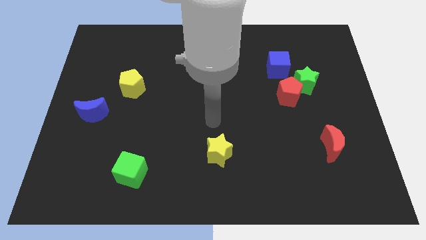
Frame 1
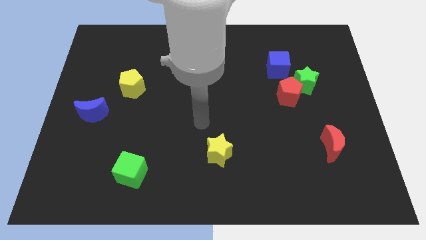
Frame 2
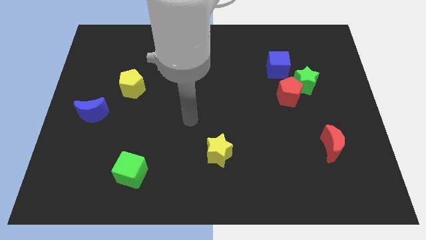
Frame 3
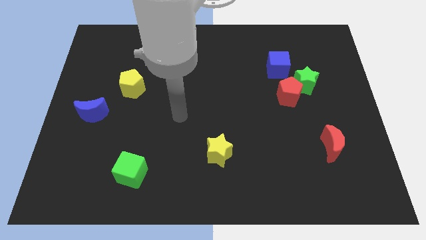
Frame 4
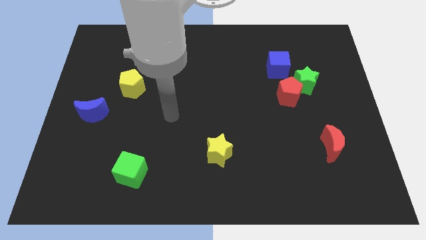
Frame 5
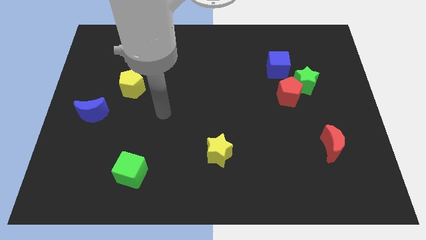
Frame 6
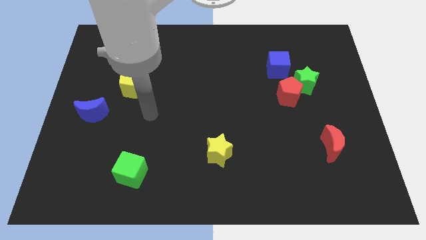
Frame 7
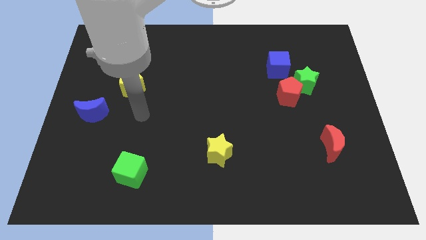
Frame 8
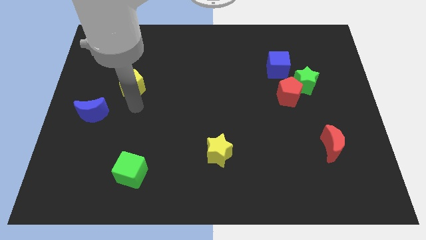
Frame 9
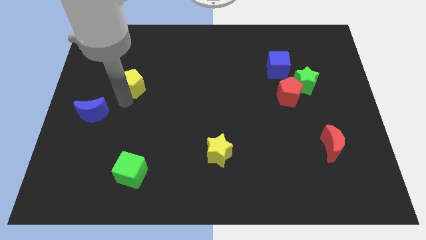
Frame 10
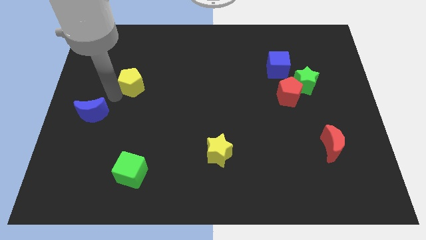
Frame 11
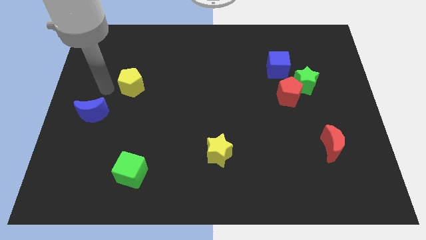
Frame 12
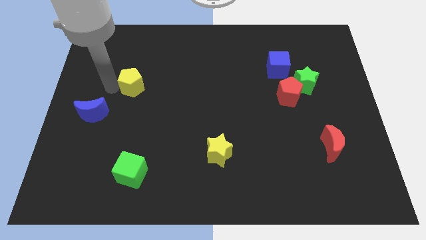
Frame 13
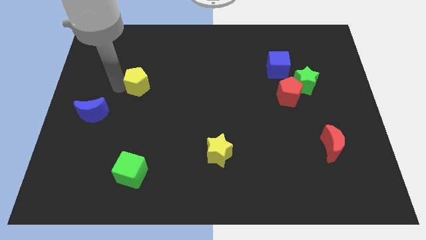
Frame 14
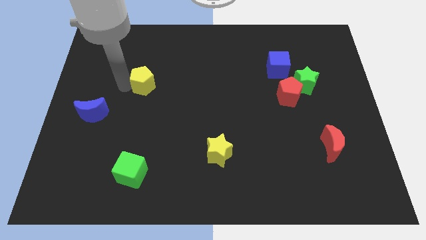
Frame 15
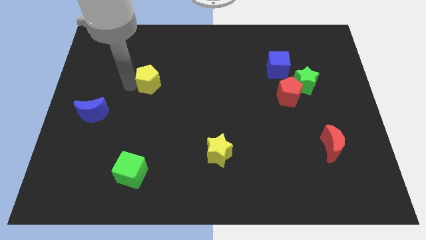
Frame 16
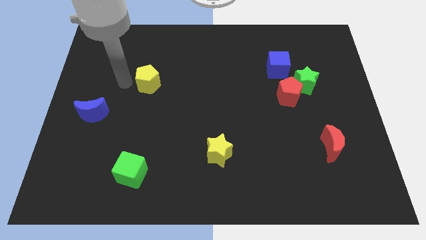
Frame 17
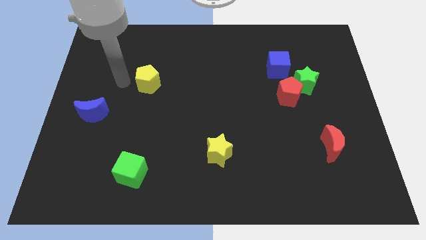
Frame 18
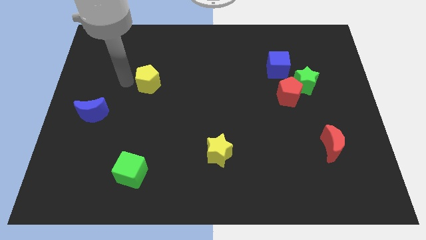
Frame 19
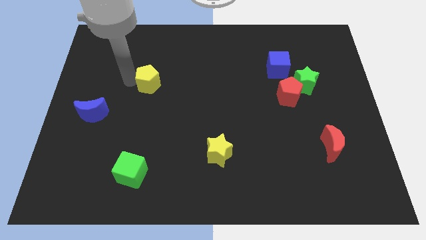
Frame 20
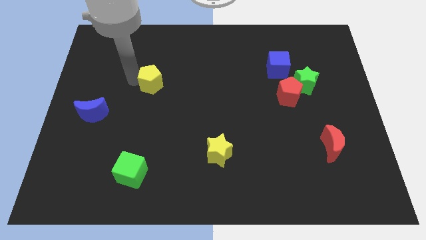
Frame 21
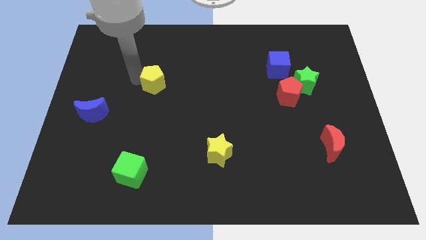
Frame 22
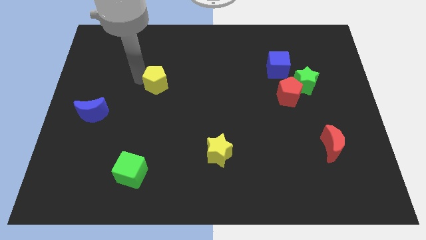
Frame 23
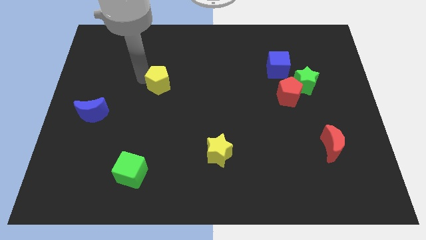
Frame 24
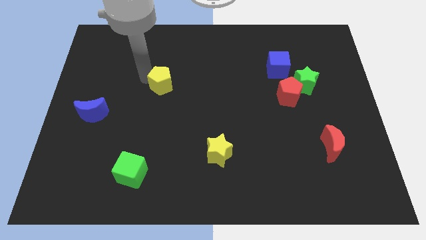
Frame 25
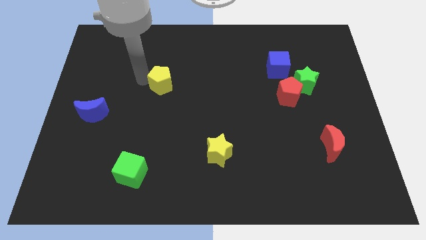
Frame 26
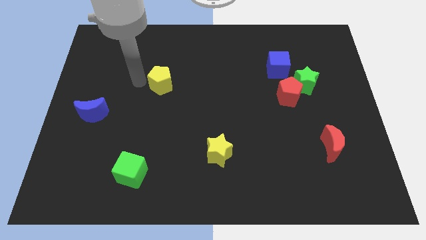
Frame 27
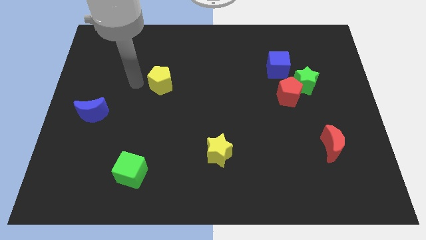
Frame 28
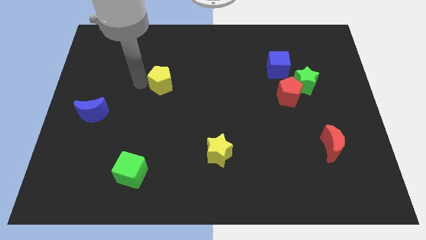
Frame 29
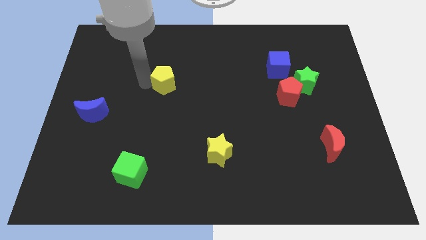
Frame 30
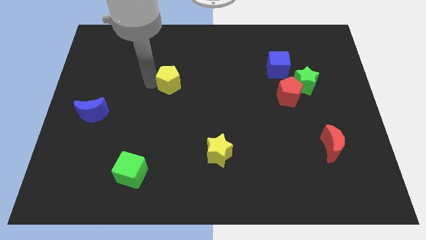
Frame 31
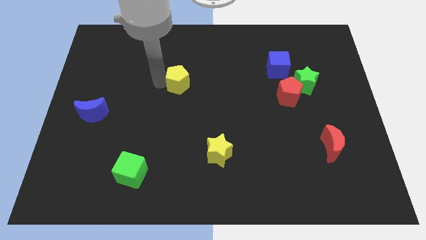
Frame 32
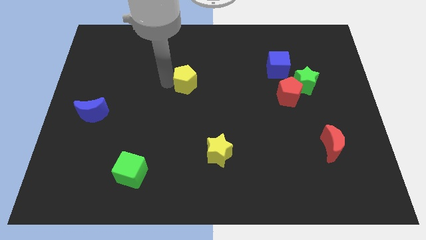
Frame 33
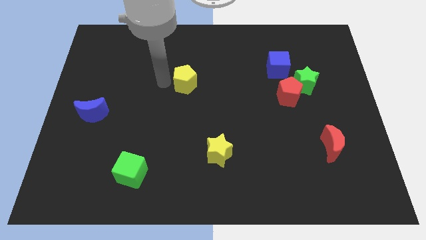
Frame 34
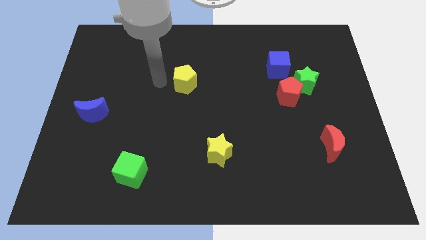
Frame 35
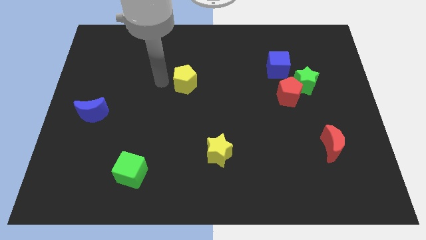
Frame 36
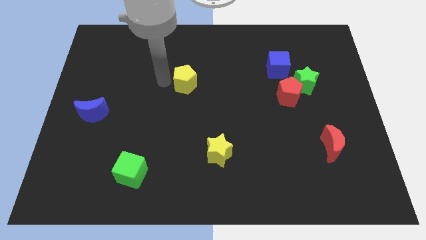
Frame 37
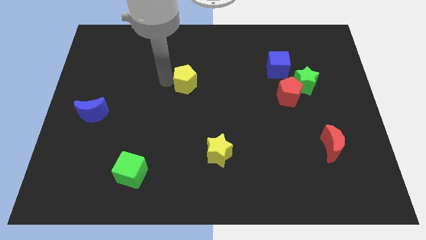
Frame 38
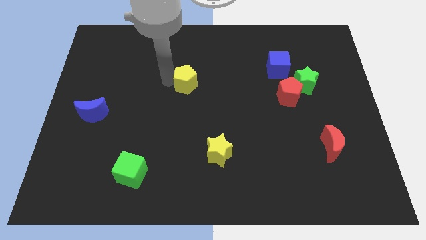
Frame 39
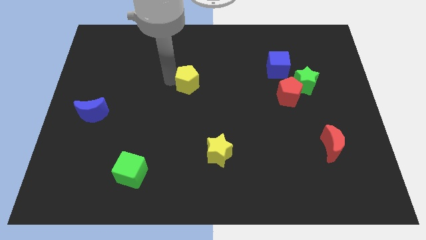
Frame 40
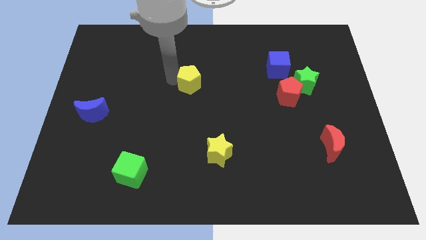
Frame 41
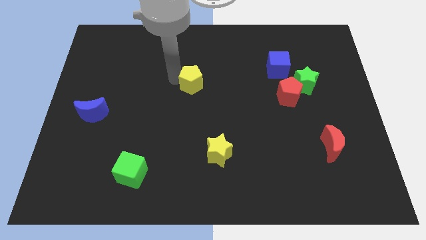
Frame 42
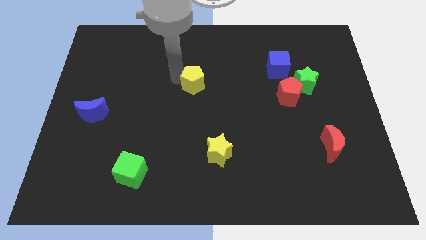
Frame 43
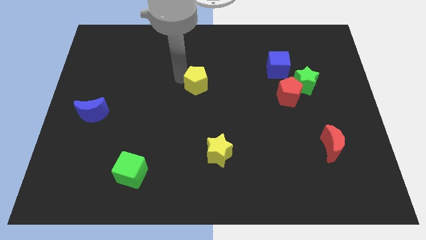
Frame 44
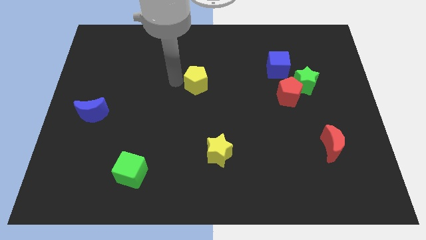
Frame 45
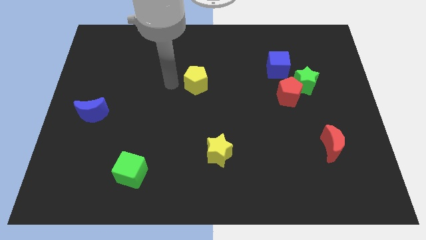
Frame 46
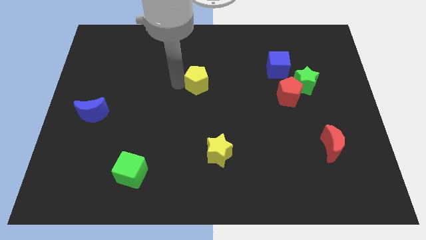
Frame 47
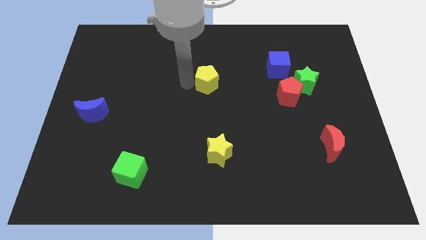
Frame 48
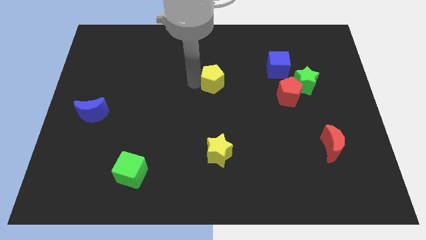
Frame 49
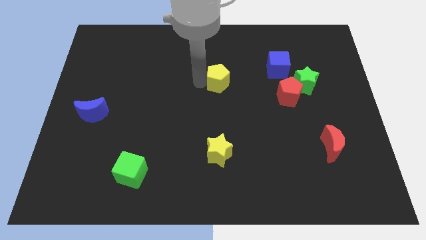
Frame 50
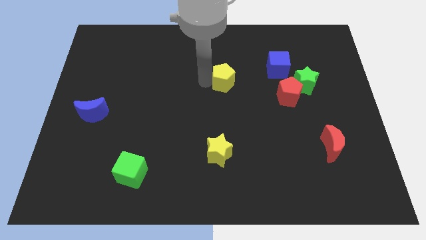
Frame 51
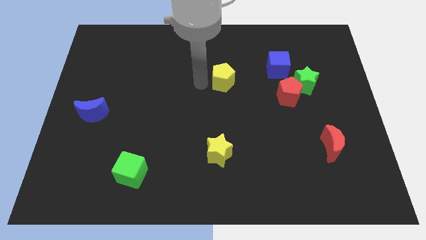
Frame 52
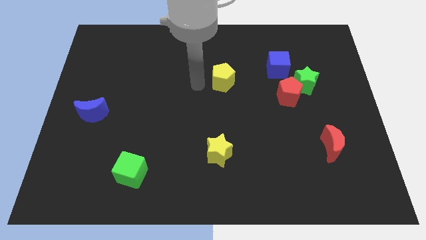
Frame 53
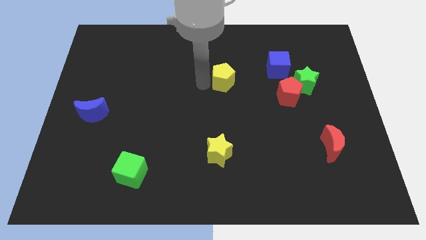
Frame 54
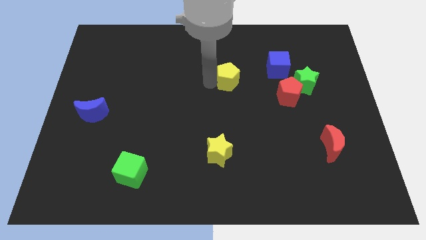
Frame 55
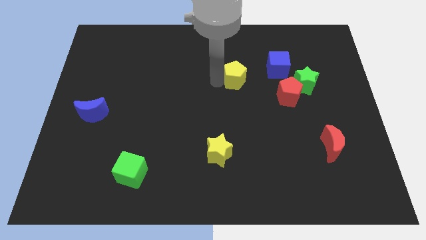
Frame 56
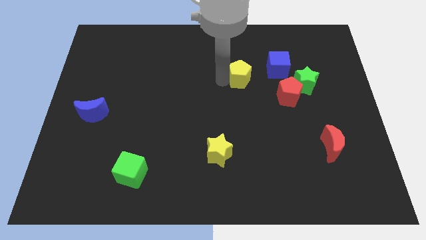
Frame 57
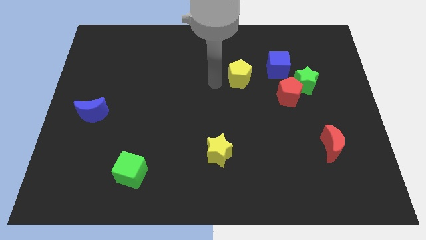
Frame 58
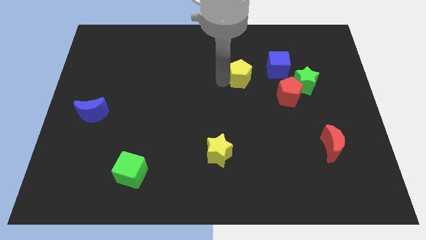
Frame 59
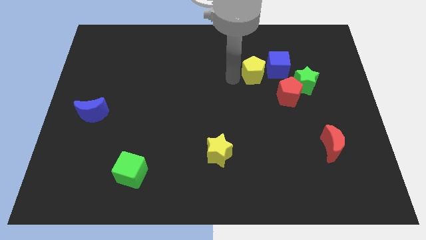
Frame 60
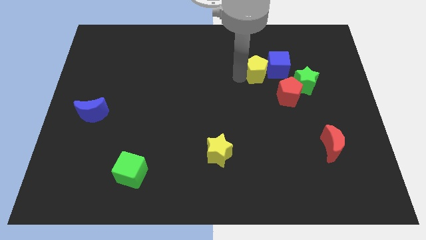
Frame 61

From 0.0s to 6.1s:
slide the yellow pentagon close to the blue cube

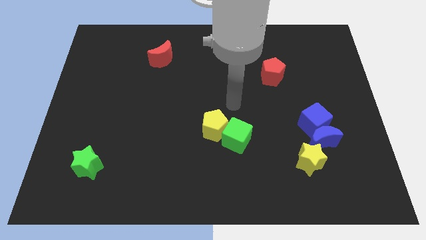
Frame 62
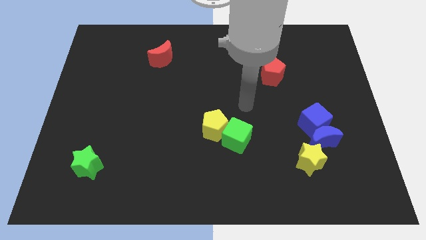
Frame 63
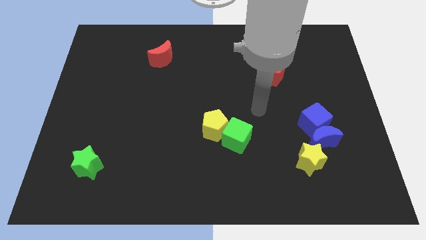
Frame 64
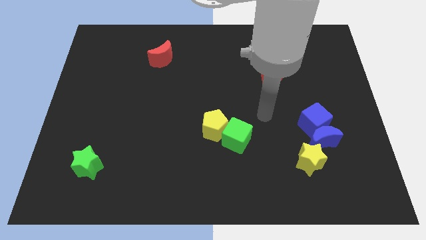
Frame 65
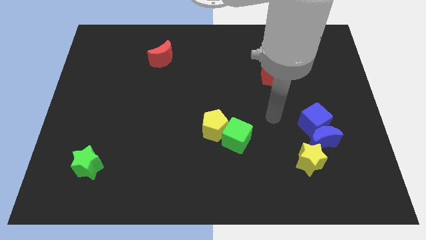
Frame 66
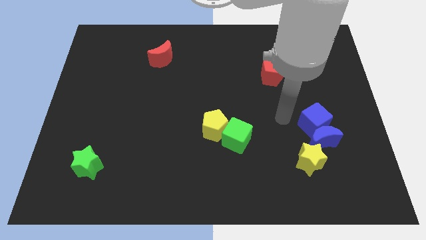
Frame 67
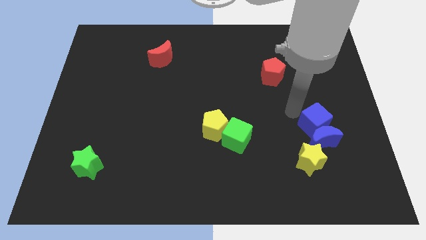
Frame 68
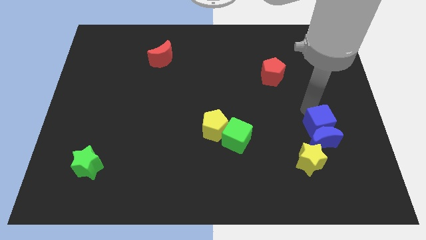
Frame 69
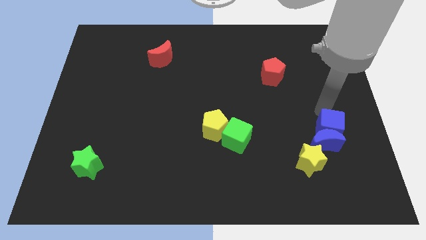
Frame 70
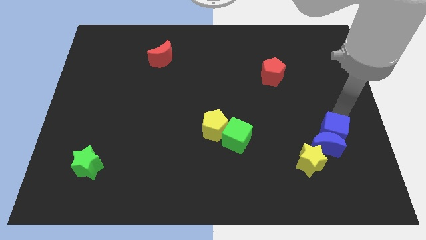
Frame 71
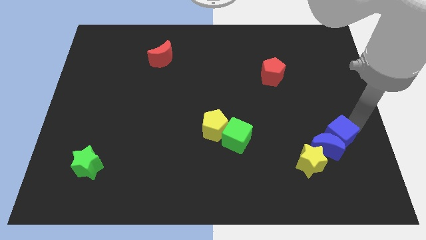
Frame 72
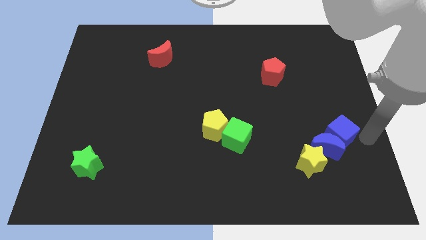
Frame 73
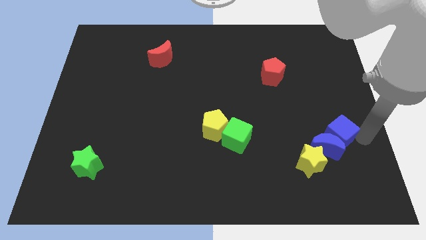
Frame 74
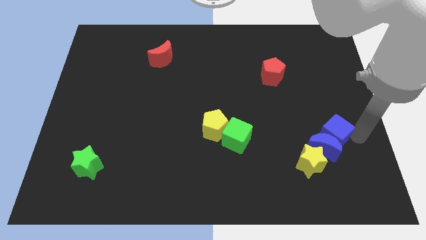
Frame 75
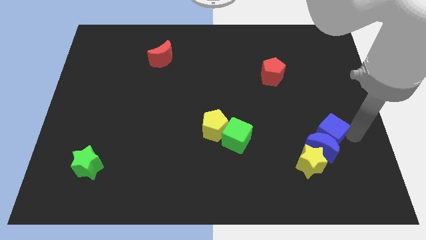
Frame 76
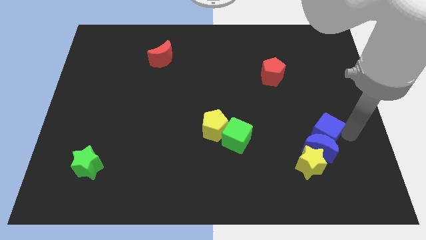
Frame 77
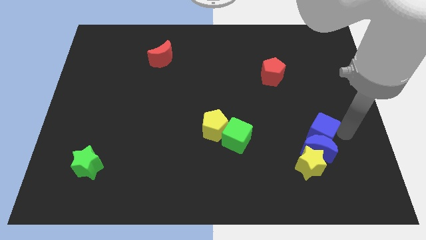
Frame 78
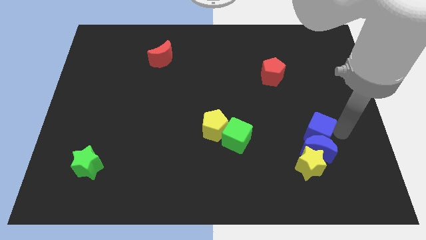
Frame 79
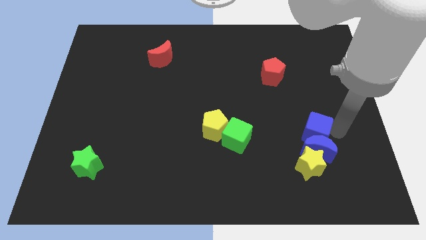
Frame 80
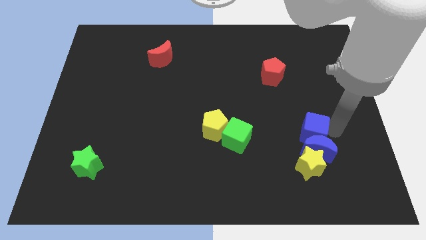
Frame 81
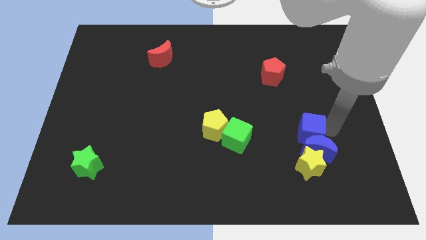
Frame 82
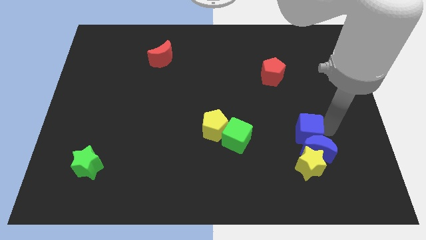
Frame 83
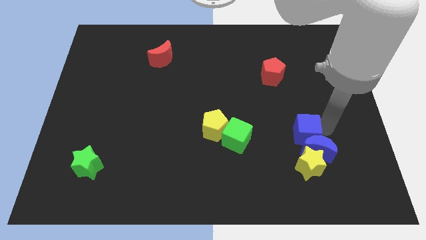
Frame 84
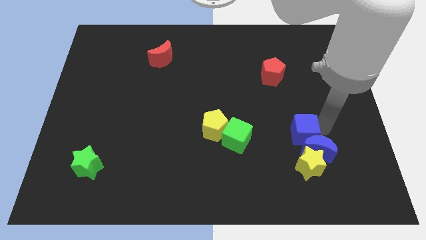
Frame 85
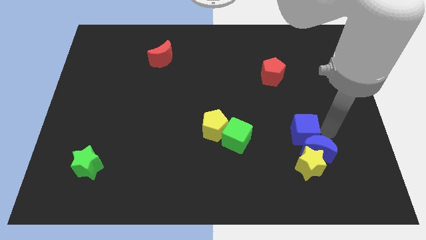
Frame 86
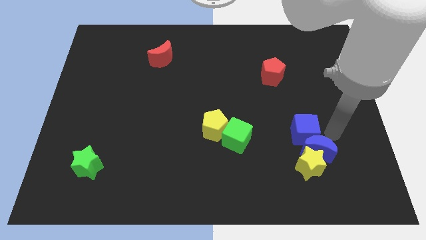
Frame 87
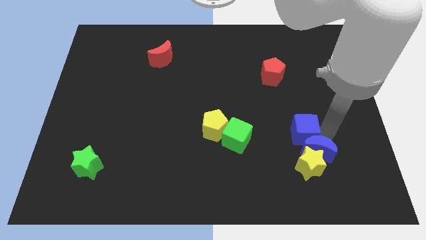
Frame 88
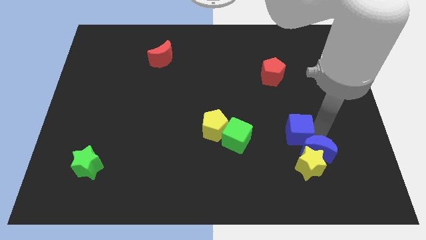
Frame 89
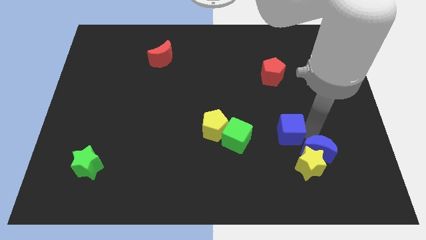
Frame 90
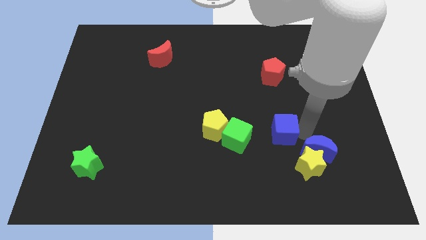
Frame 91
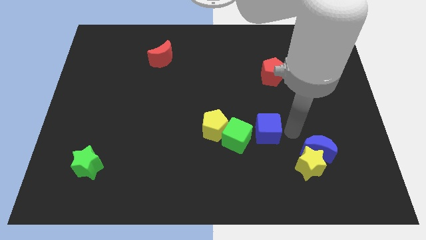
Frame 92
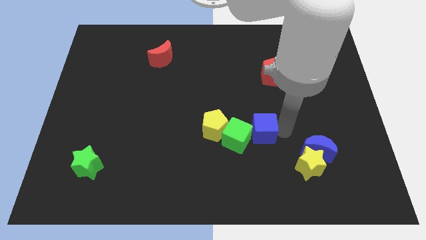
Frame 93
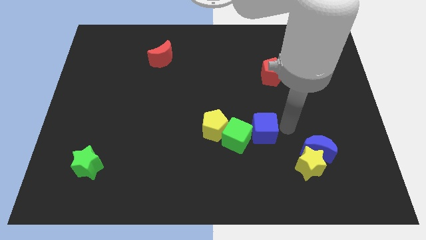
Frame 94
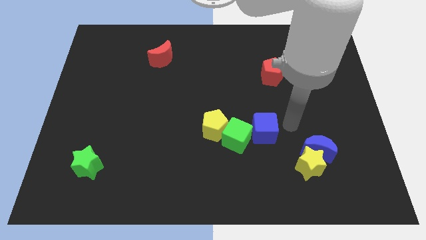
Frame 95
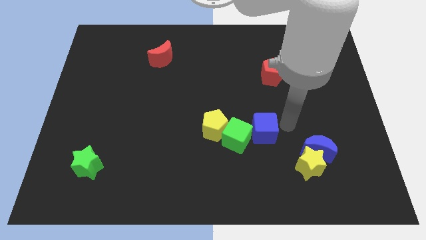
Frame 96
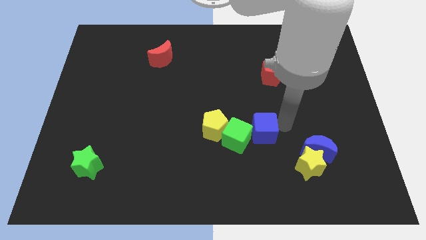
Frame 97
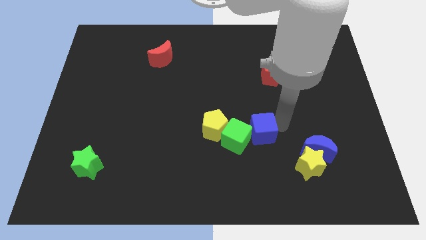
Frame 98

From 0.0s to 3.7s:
move the blue cube to the green cube
